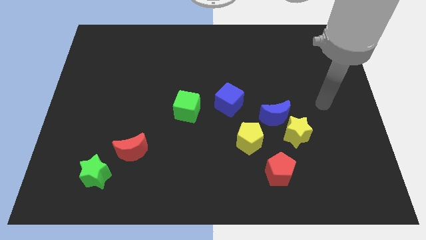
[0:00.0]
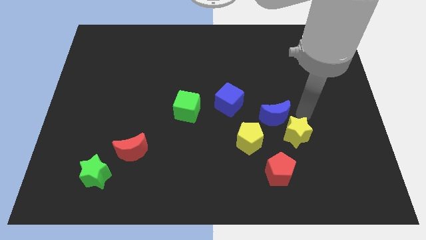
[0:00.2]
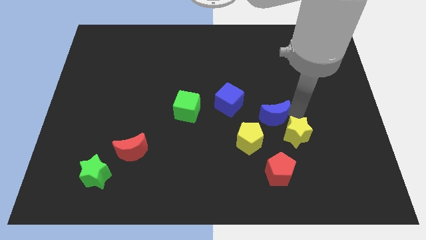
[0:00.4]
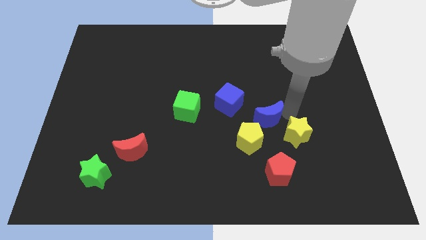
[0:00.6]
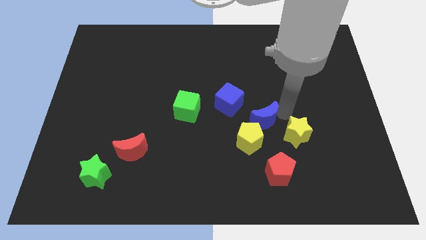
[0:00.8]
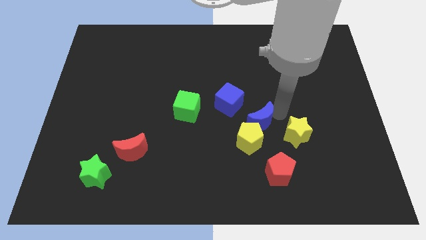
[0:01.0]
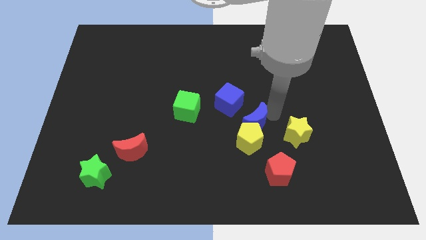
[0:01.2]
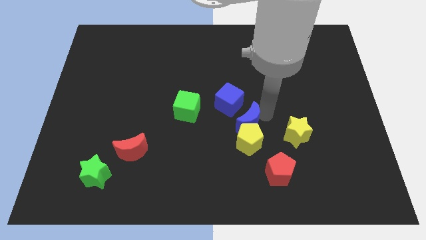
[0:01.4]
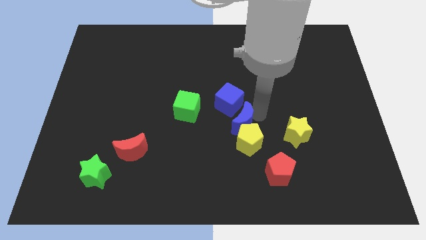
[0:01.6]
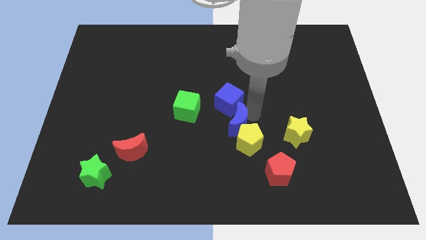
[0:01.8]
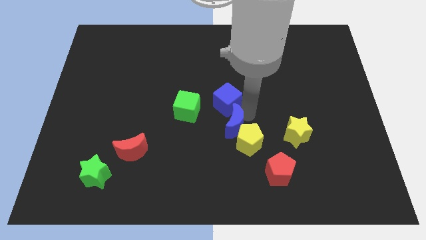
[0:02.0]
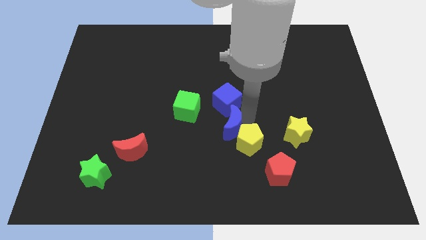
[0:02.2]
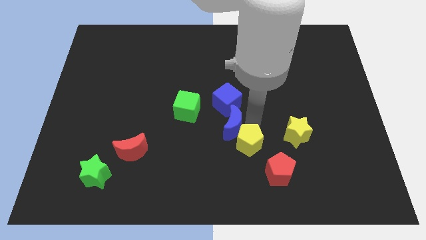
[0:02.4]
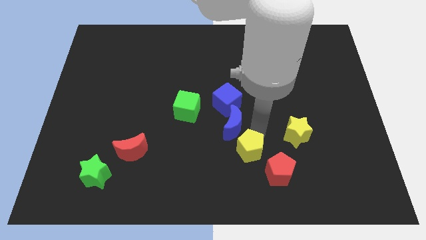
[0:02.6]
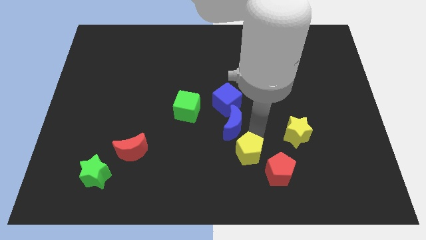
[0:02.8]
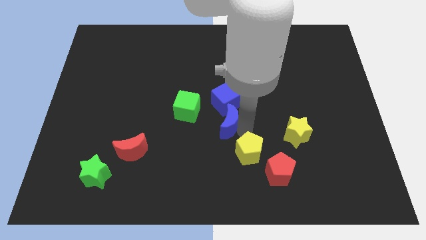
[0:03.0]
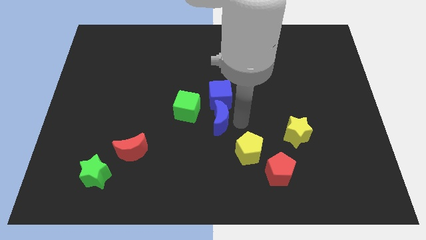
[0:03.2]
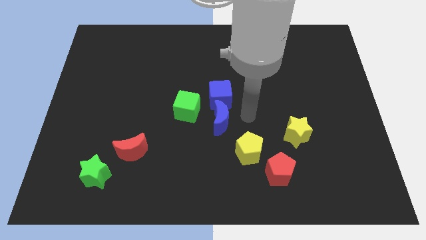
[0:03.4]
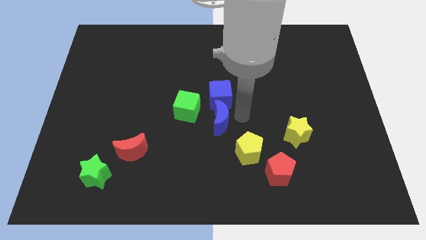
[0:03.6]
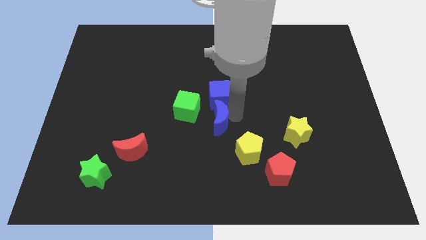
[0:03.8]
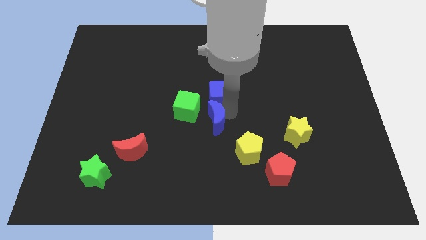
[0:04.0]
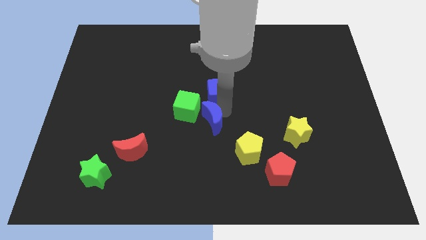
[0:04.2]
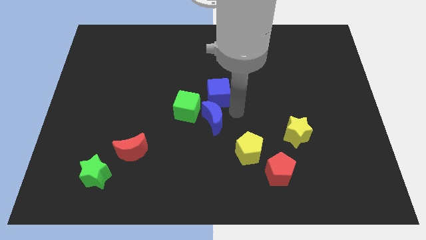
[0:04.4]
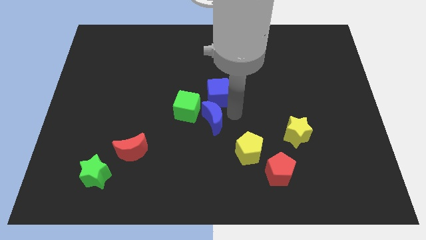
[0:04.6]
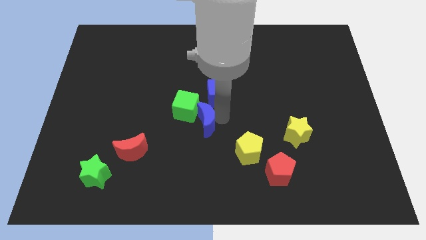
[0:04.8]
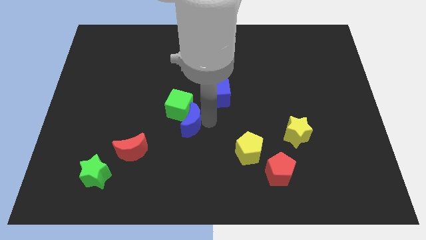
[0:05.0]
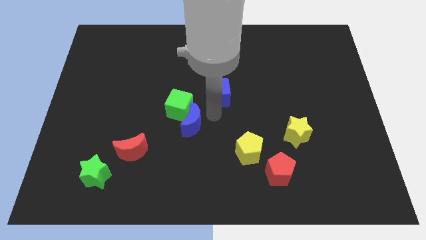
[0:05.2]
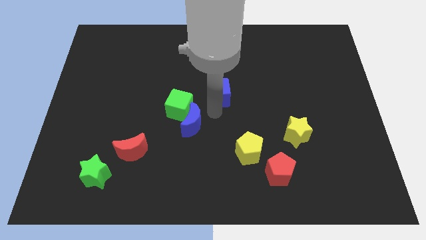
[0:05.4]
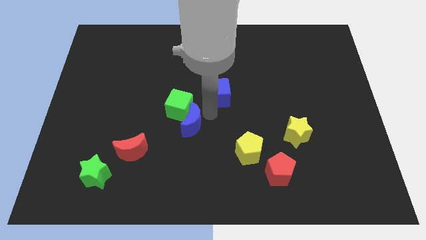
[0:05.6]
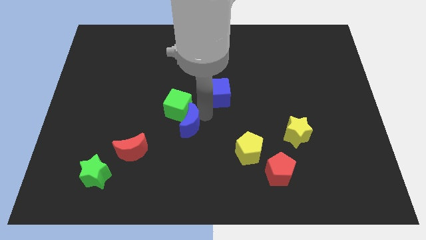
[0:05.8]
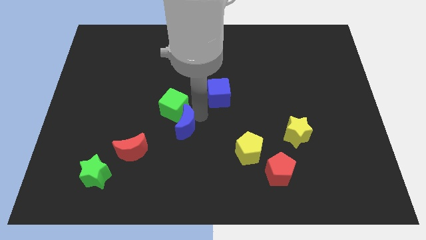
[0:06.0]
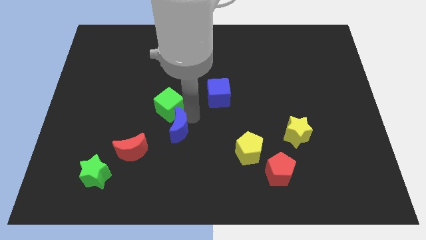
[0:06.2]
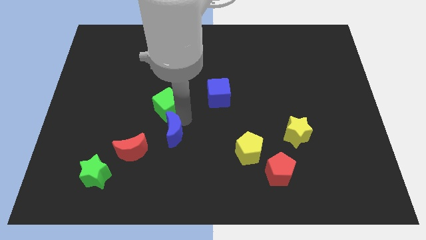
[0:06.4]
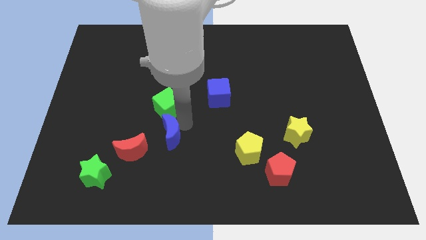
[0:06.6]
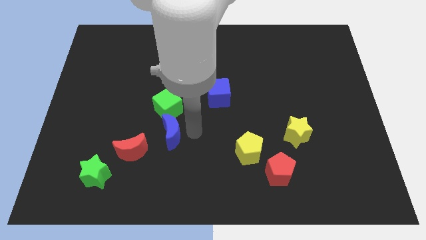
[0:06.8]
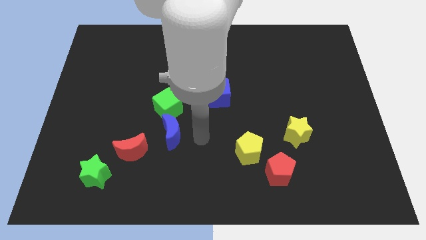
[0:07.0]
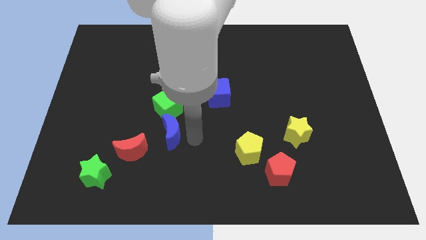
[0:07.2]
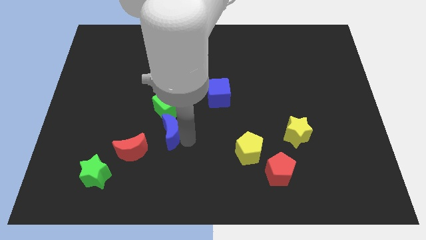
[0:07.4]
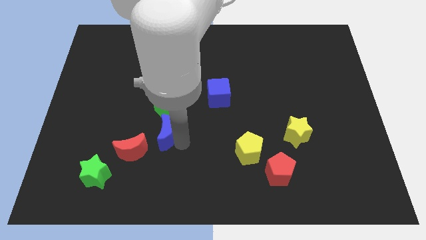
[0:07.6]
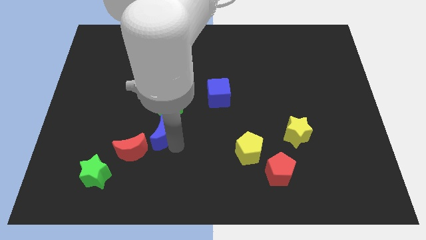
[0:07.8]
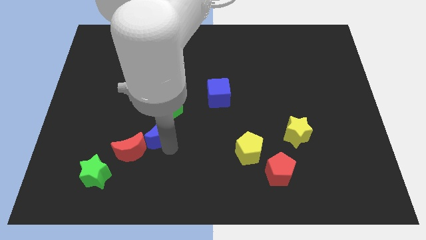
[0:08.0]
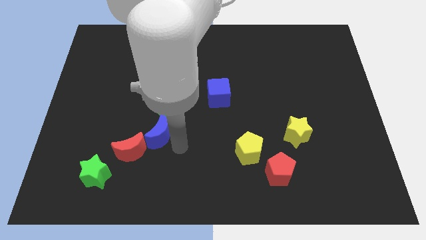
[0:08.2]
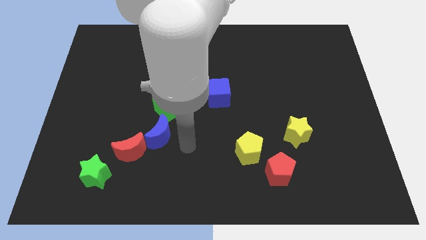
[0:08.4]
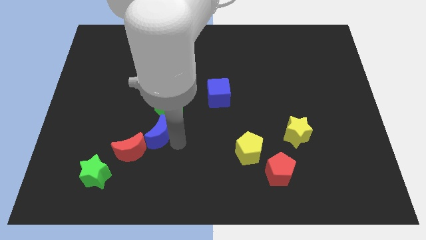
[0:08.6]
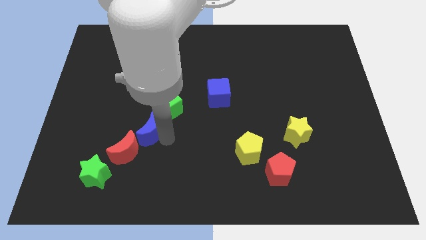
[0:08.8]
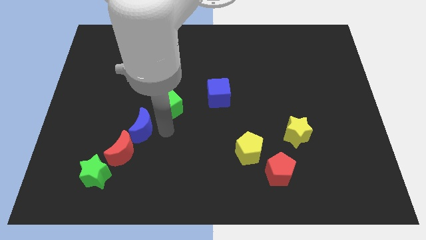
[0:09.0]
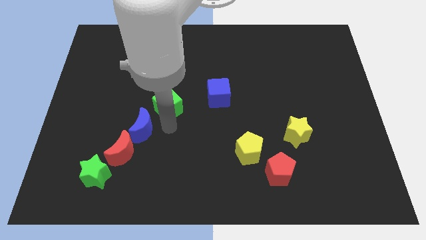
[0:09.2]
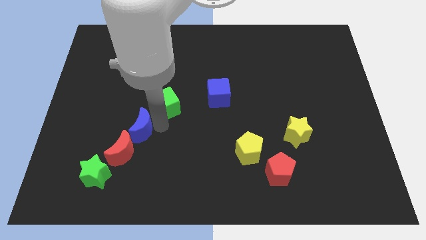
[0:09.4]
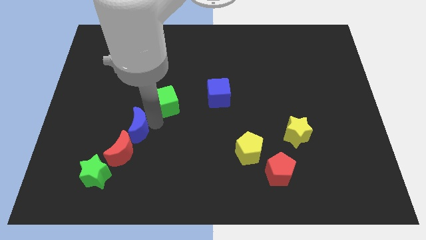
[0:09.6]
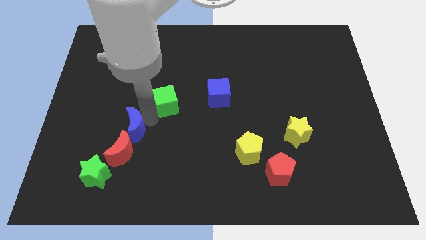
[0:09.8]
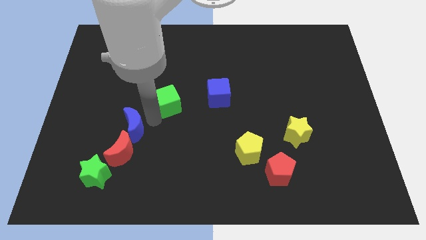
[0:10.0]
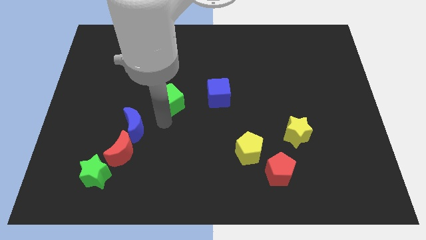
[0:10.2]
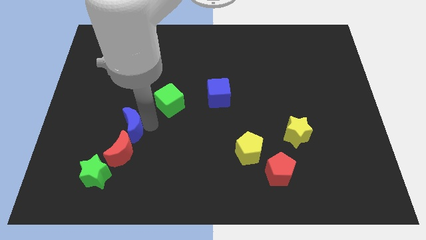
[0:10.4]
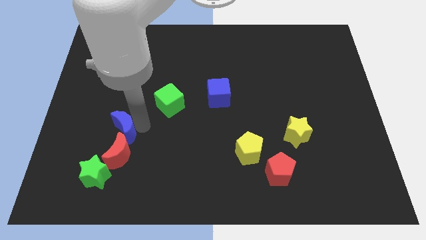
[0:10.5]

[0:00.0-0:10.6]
move the blue moon to the top left of the red moon

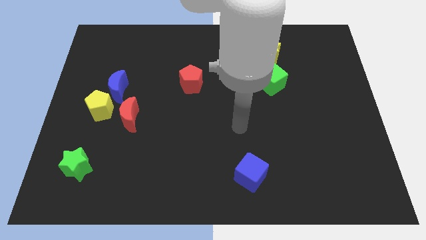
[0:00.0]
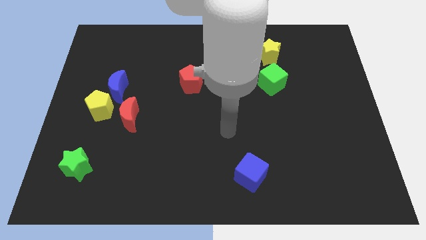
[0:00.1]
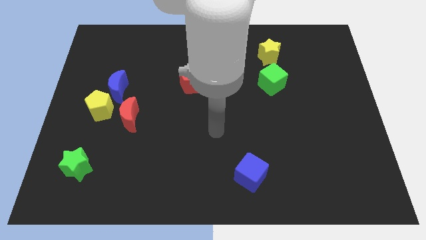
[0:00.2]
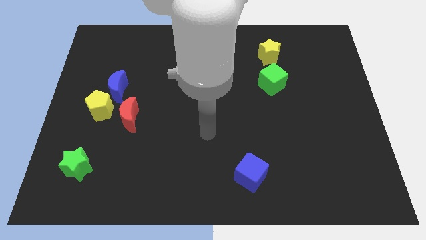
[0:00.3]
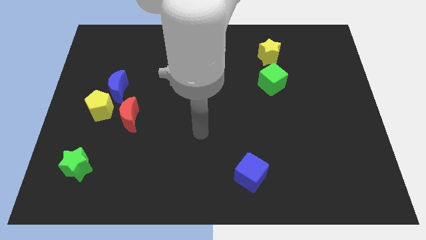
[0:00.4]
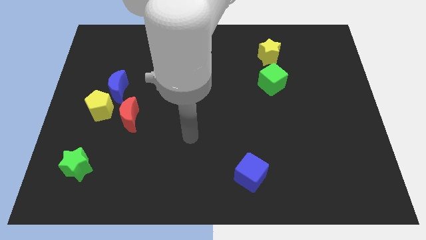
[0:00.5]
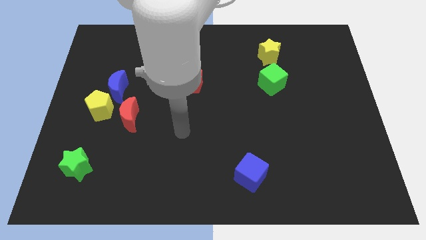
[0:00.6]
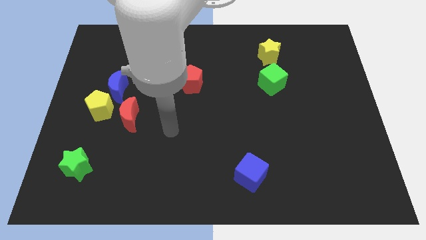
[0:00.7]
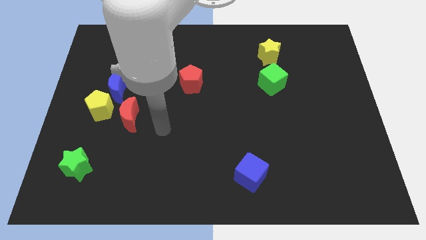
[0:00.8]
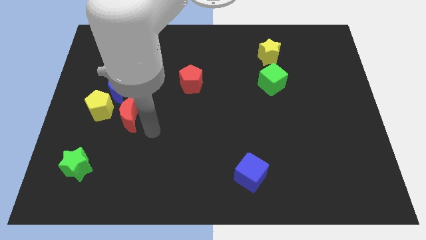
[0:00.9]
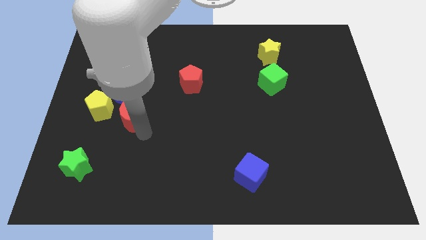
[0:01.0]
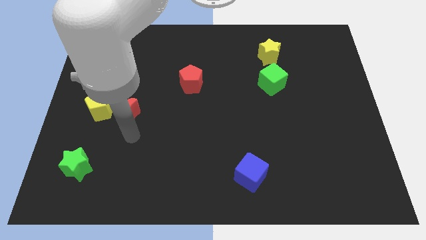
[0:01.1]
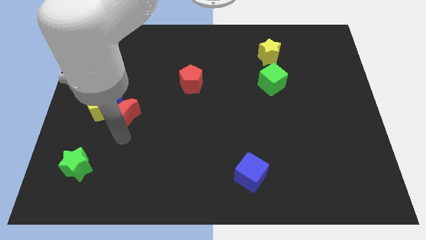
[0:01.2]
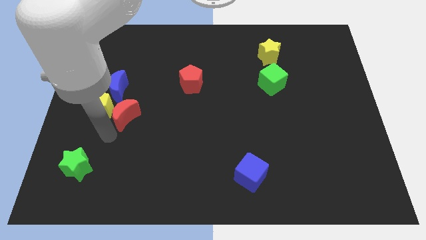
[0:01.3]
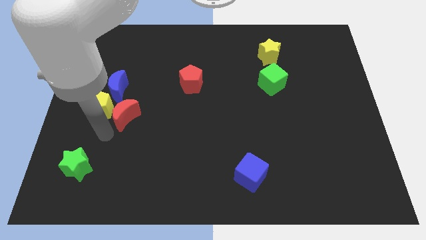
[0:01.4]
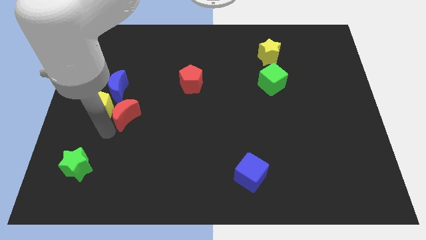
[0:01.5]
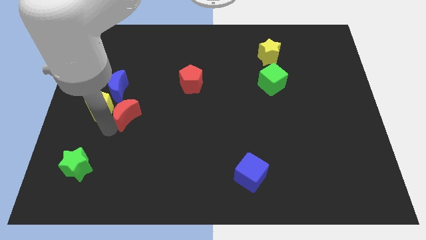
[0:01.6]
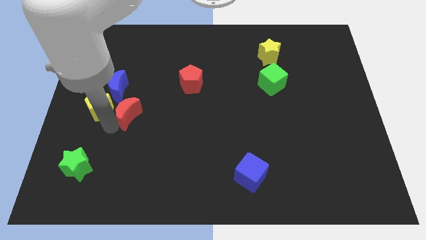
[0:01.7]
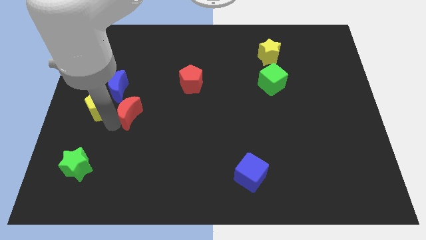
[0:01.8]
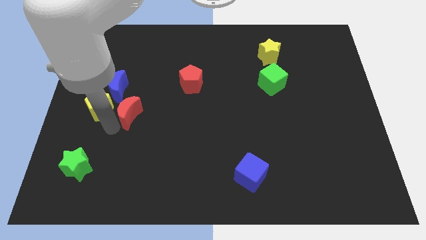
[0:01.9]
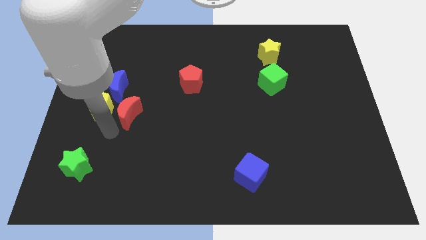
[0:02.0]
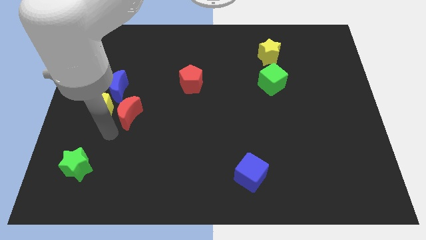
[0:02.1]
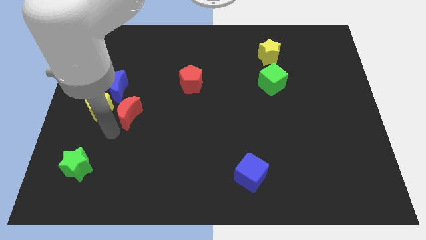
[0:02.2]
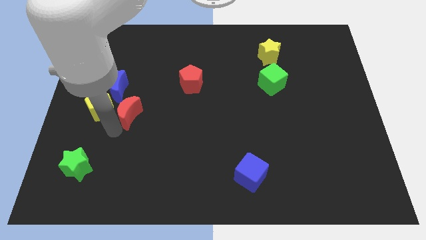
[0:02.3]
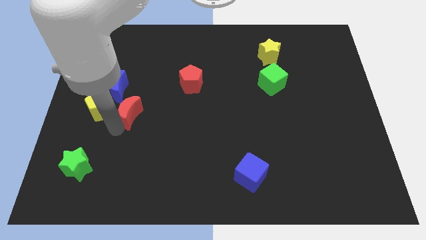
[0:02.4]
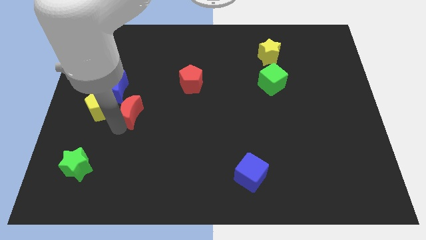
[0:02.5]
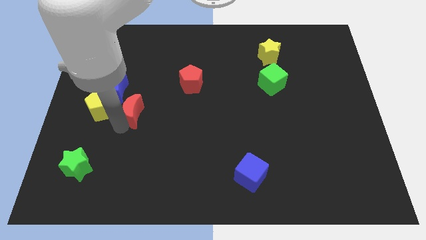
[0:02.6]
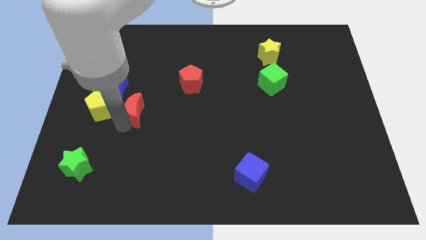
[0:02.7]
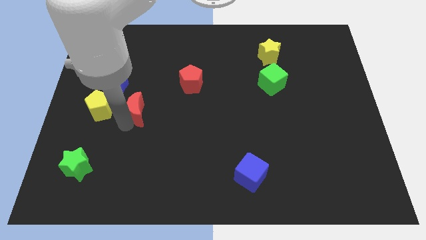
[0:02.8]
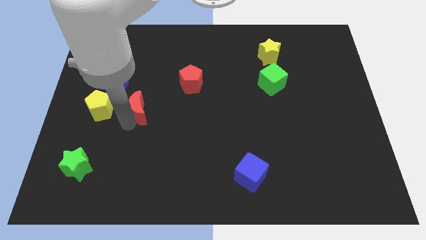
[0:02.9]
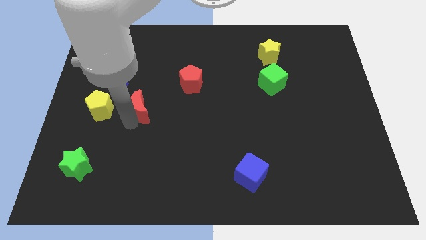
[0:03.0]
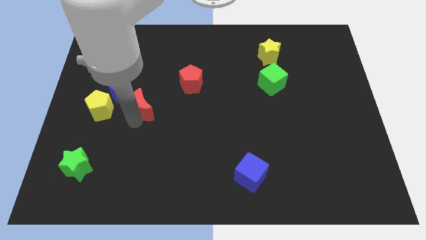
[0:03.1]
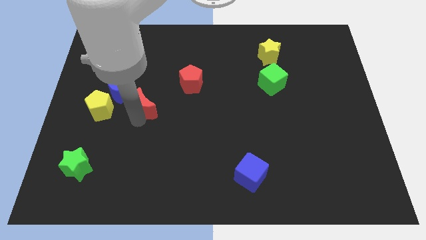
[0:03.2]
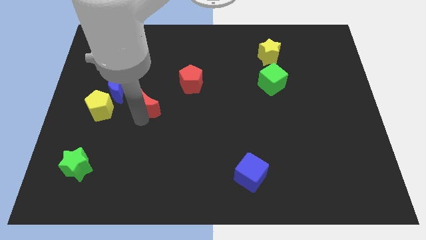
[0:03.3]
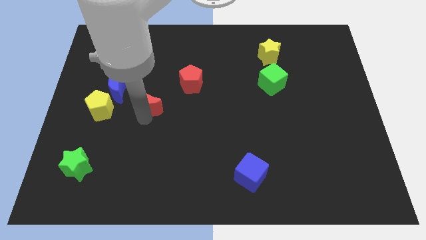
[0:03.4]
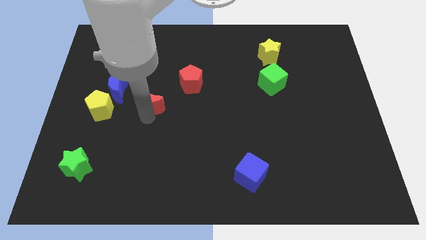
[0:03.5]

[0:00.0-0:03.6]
move the red moon to the right of the blue moon
